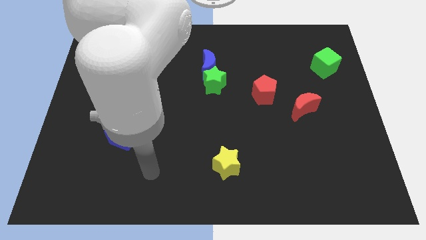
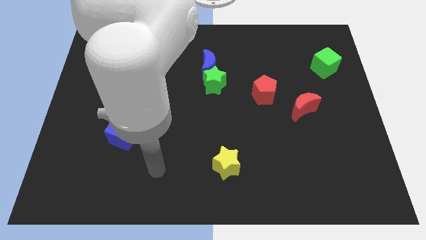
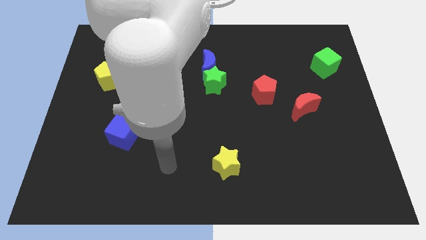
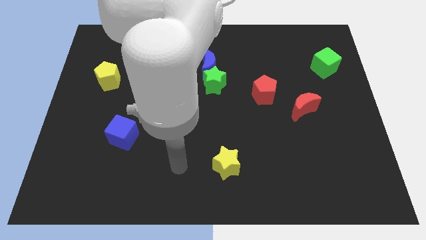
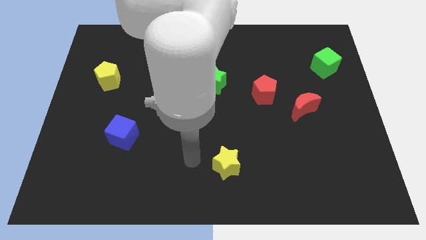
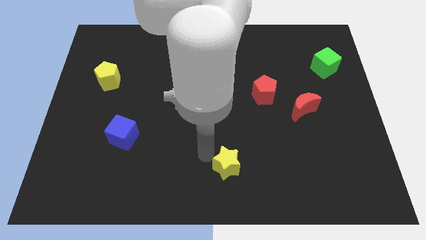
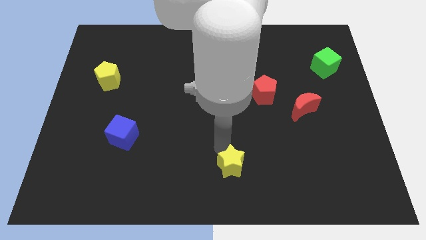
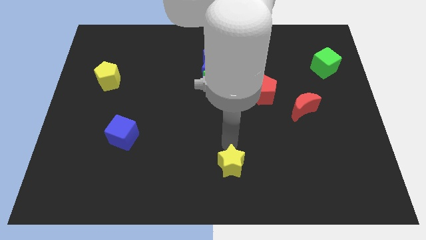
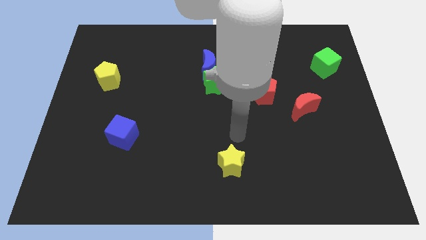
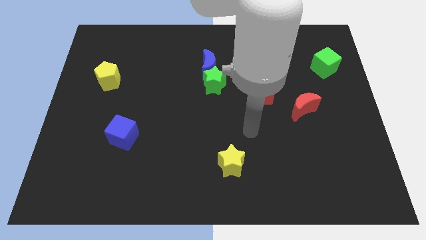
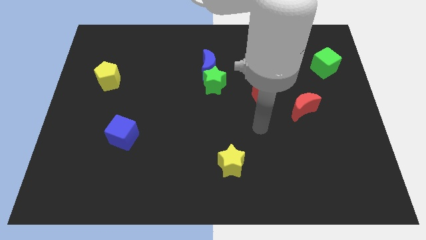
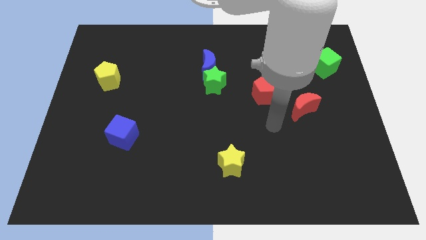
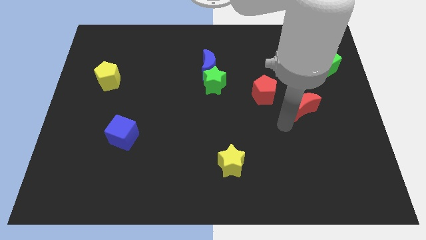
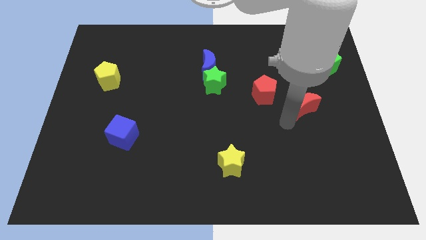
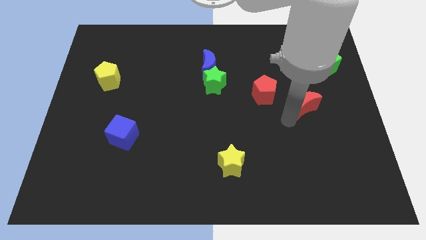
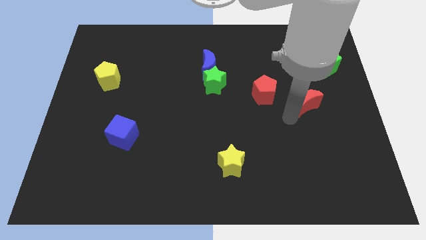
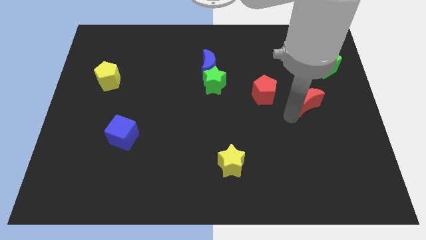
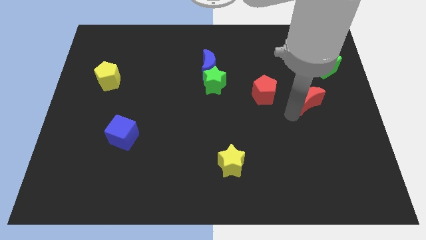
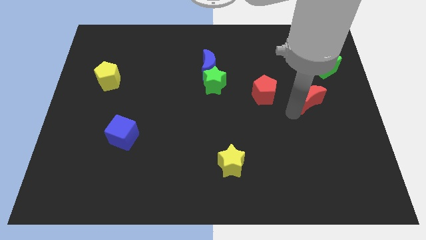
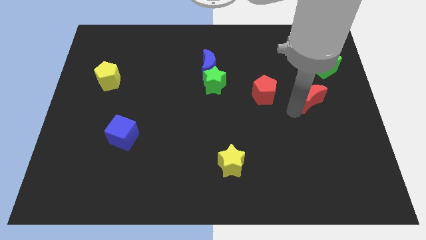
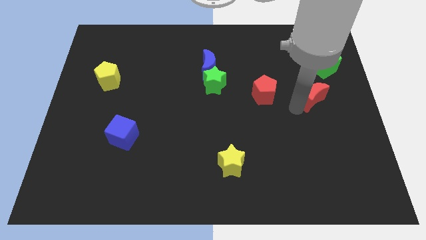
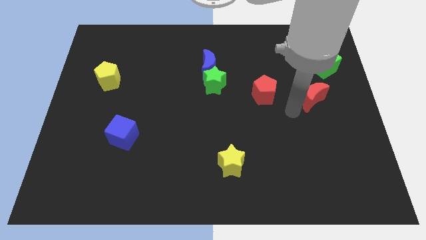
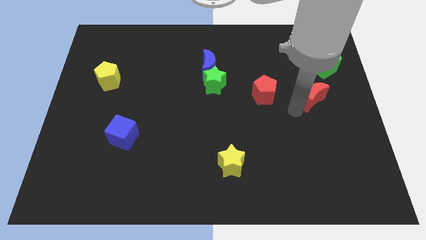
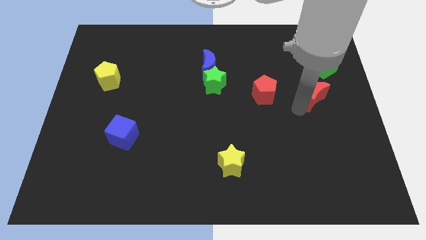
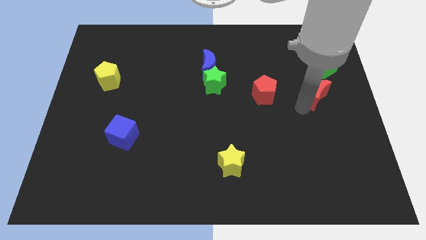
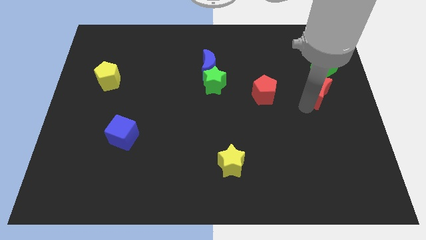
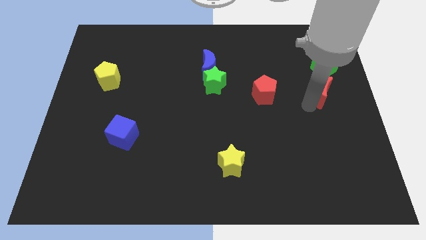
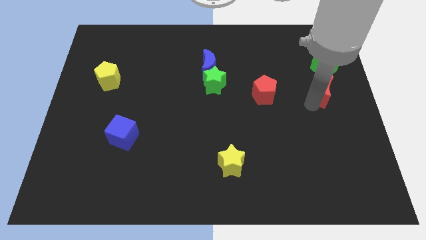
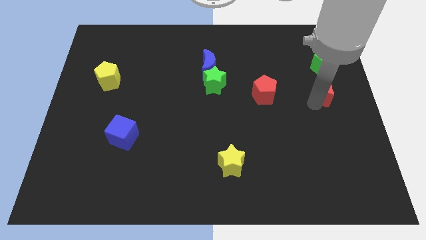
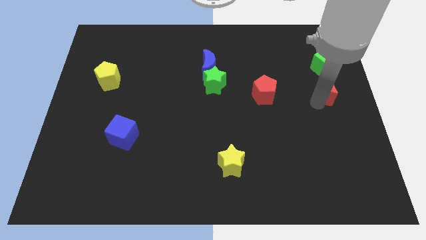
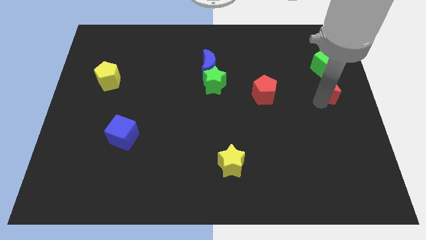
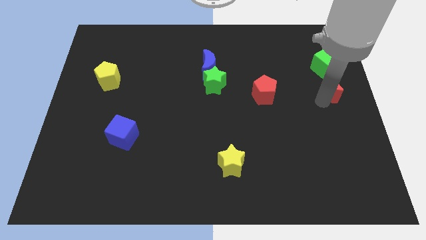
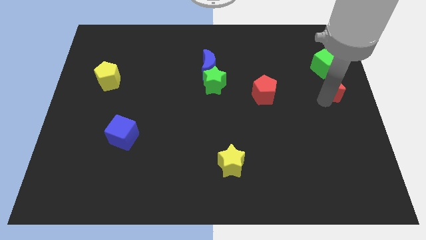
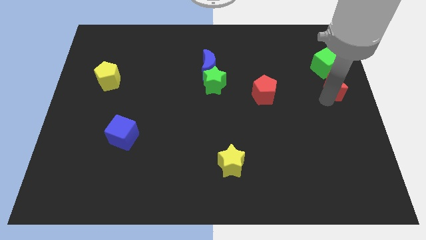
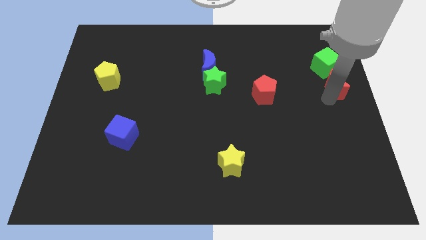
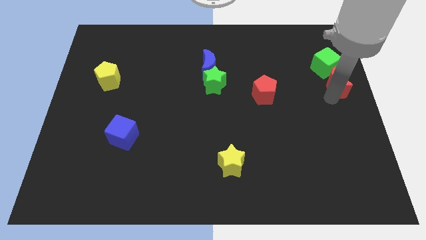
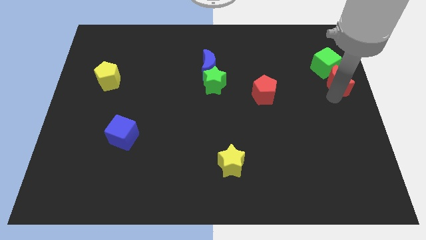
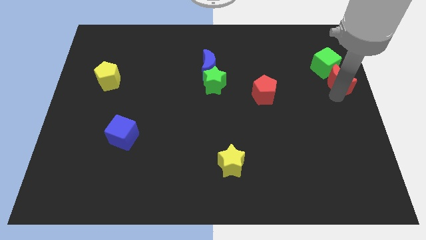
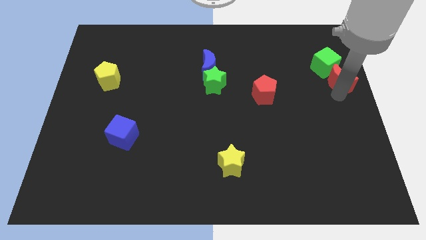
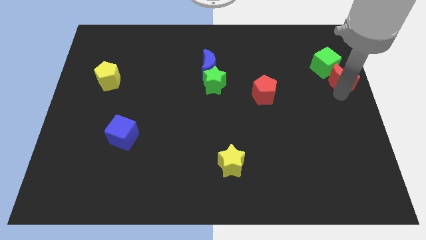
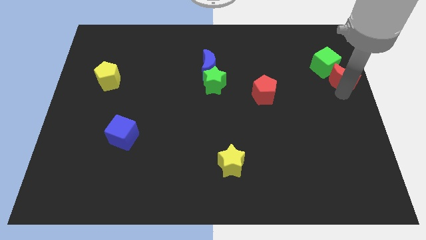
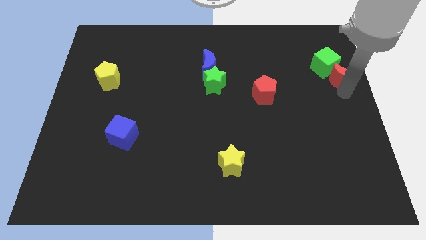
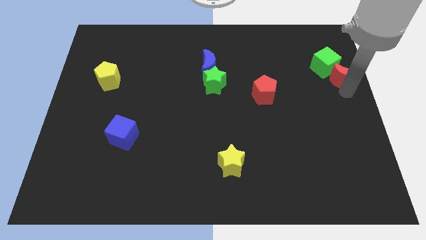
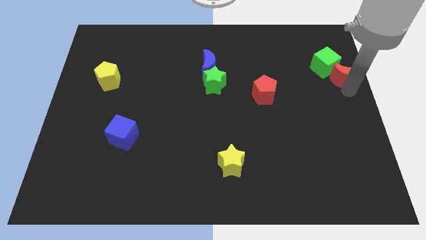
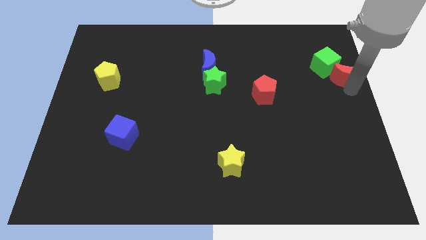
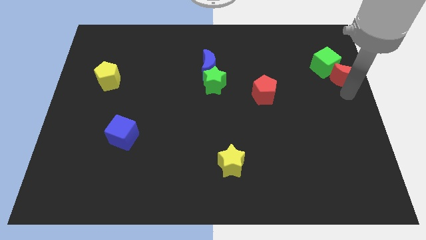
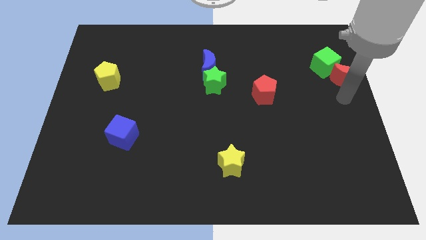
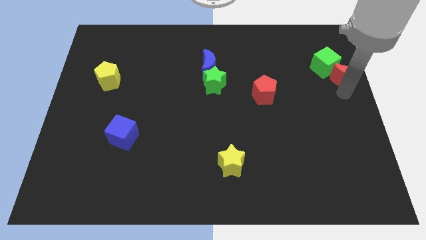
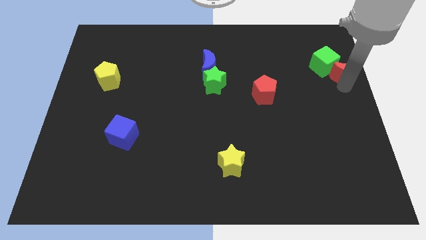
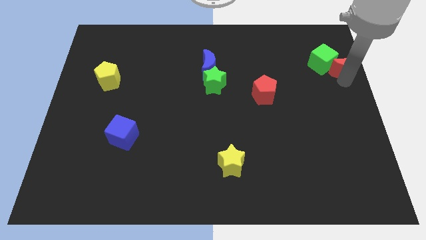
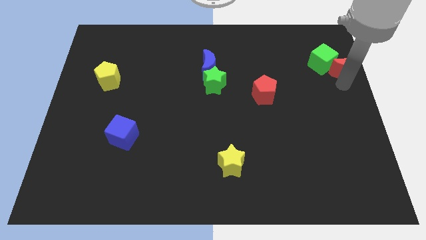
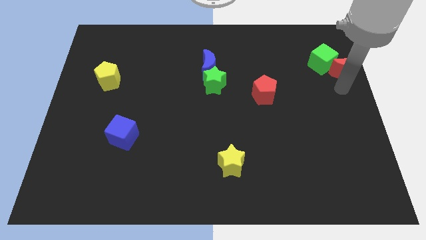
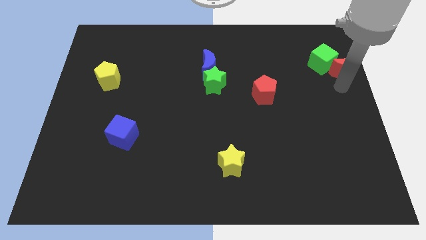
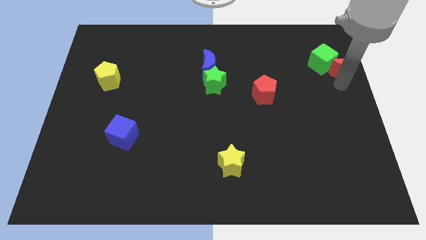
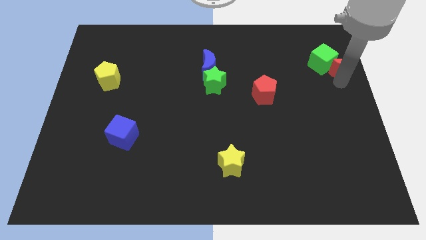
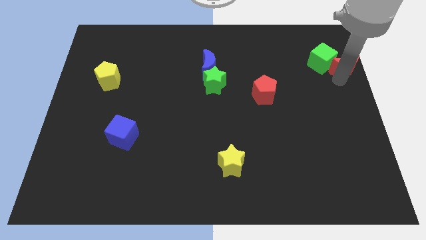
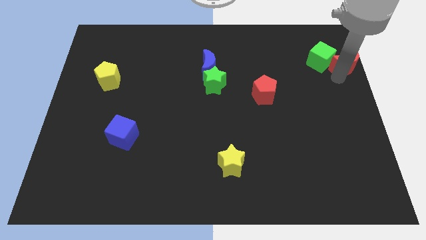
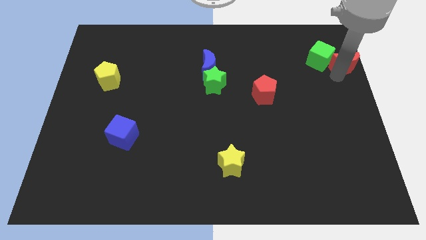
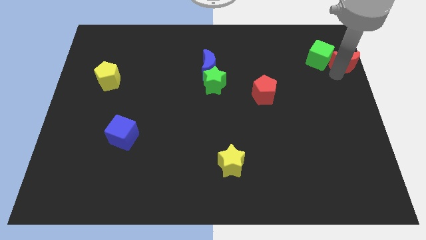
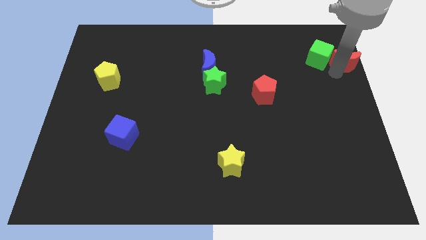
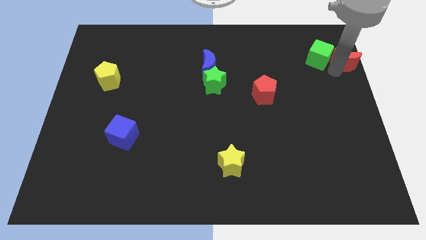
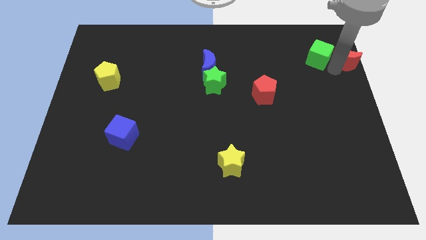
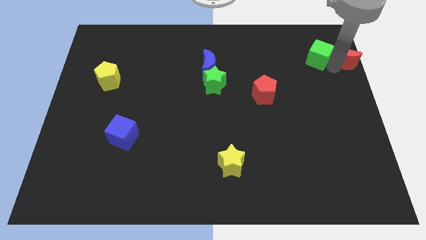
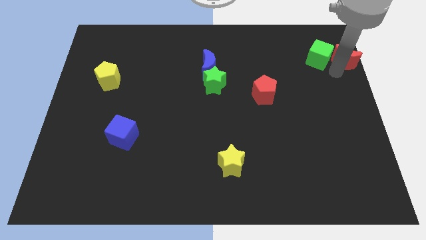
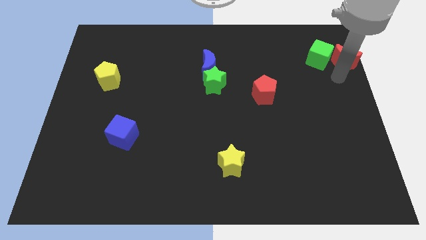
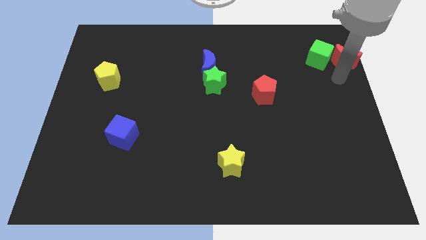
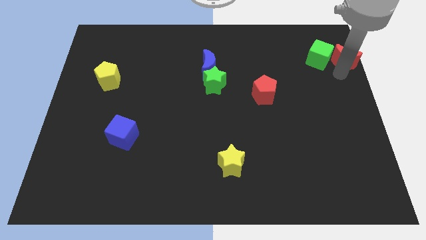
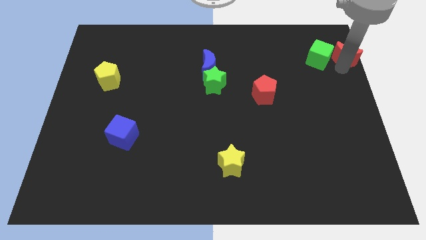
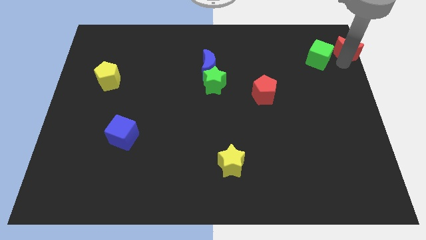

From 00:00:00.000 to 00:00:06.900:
put the red moon to the top right corner
